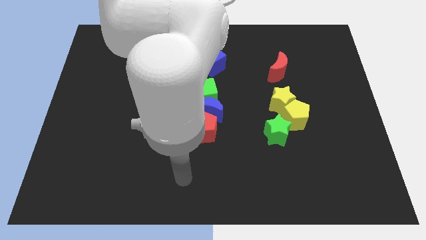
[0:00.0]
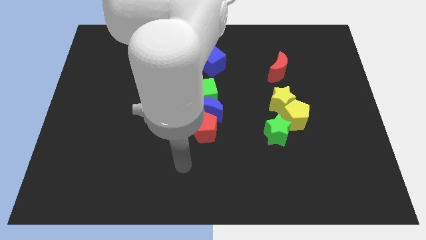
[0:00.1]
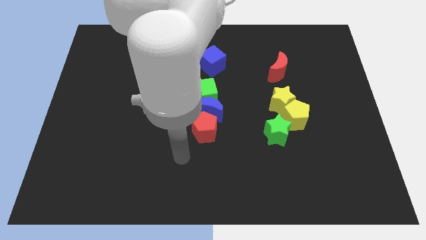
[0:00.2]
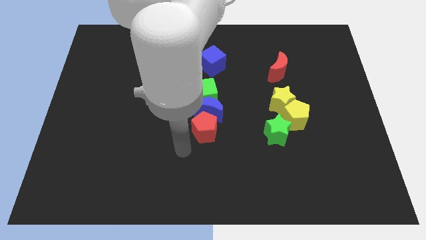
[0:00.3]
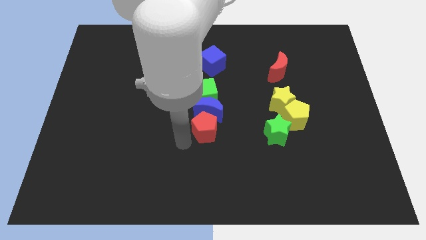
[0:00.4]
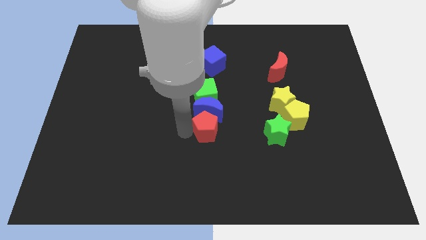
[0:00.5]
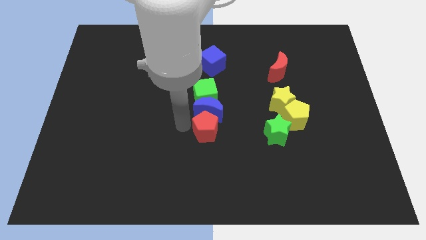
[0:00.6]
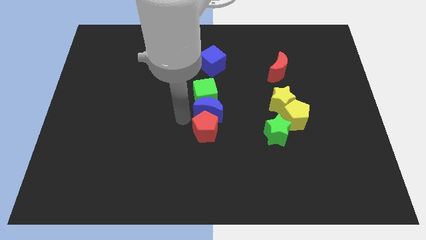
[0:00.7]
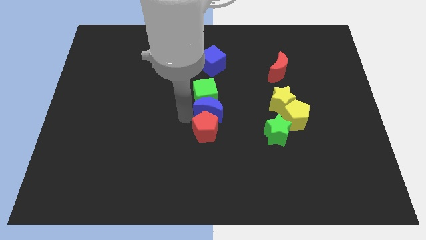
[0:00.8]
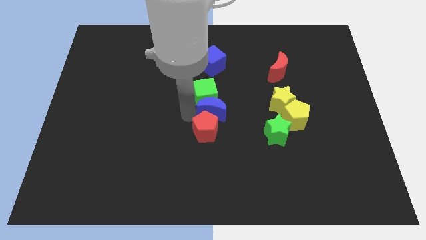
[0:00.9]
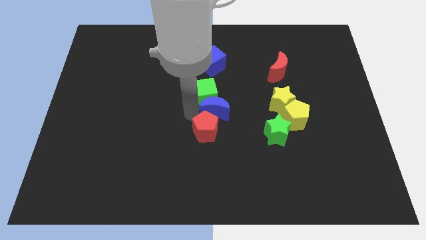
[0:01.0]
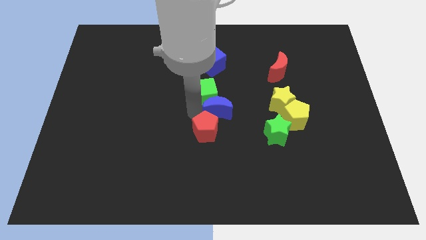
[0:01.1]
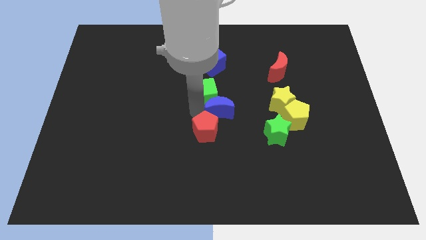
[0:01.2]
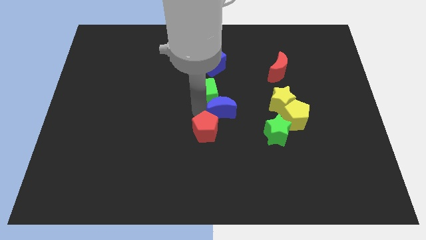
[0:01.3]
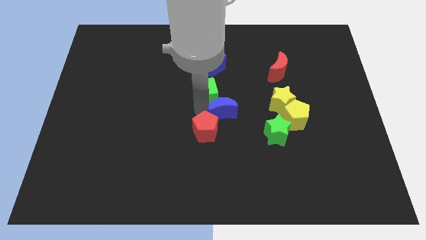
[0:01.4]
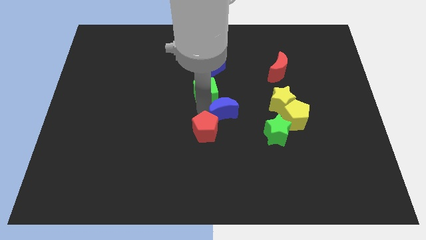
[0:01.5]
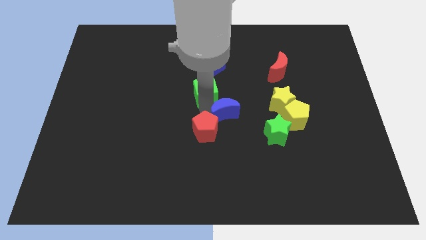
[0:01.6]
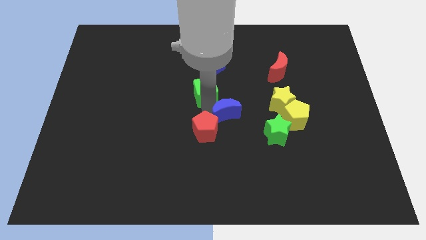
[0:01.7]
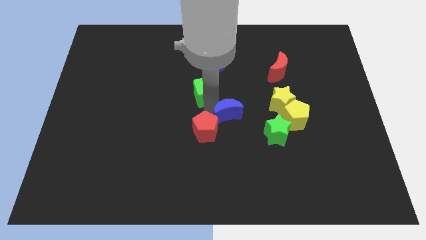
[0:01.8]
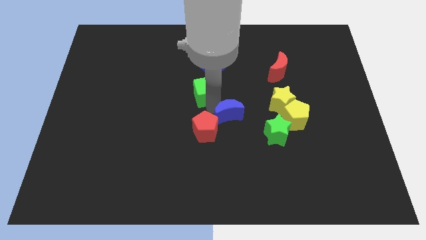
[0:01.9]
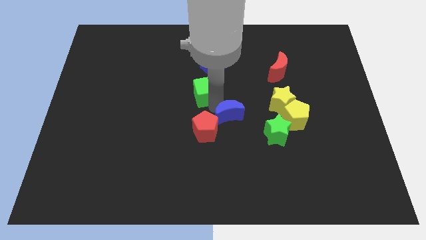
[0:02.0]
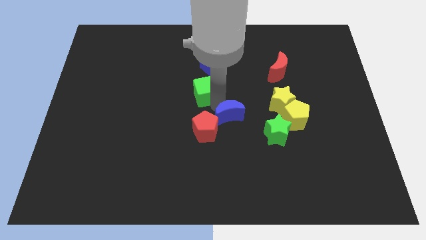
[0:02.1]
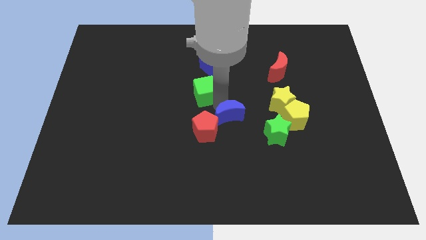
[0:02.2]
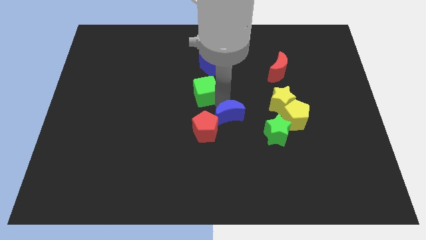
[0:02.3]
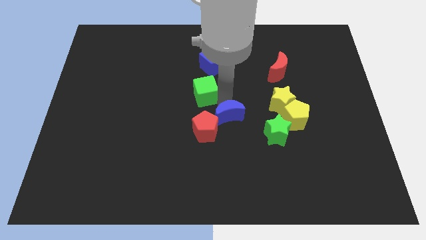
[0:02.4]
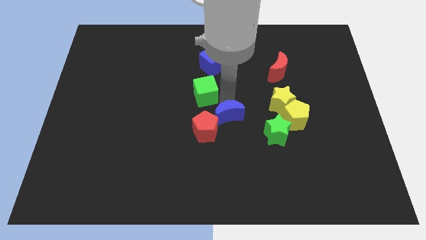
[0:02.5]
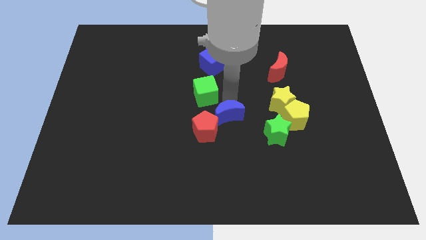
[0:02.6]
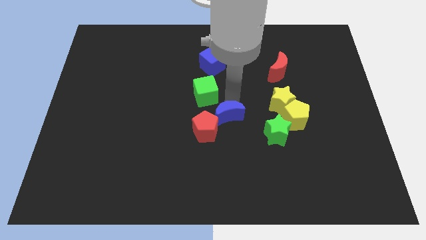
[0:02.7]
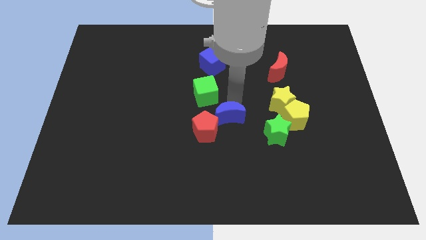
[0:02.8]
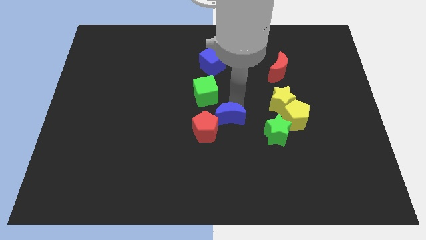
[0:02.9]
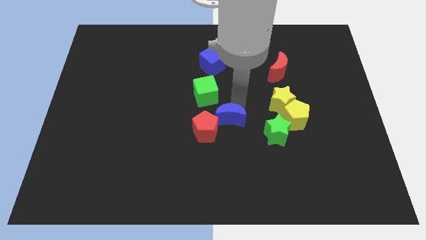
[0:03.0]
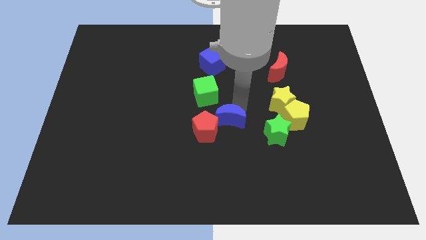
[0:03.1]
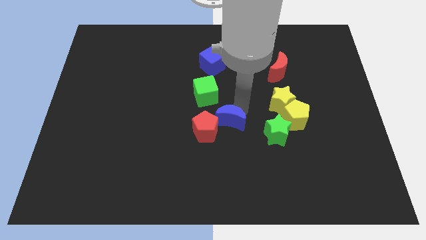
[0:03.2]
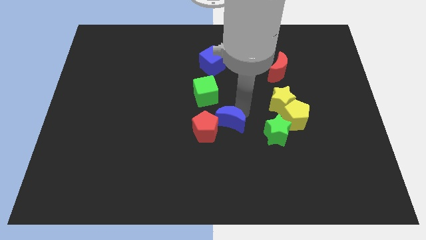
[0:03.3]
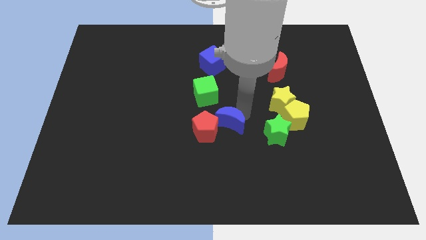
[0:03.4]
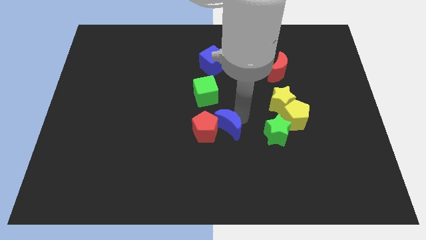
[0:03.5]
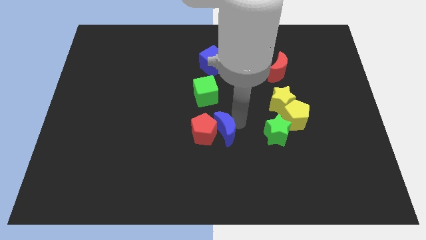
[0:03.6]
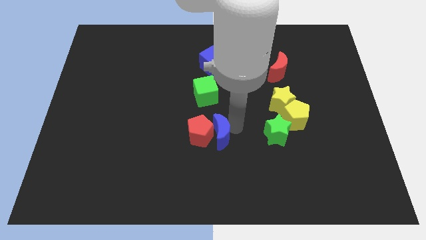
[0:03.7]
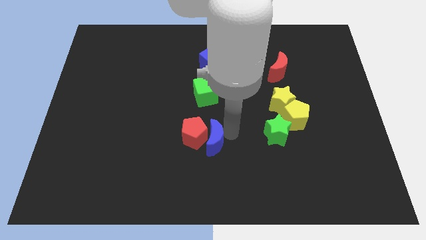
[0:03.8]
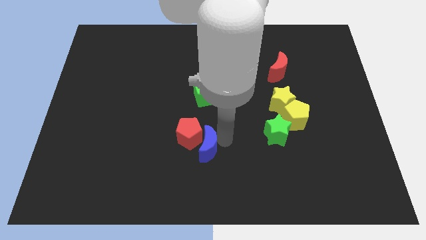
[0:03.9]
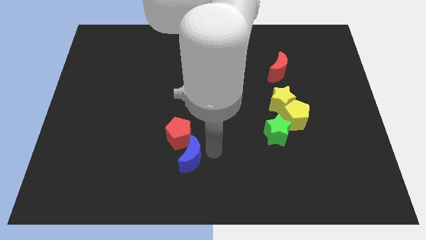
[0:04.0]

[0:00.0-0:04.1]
pull the blue moon apart from the green cube and red pentagon

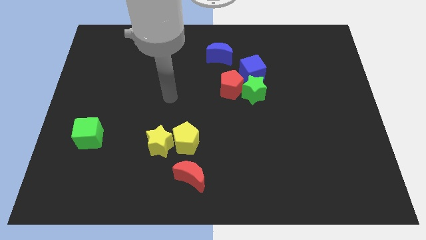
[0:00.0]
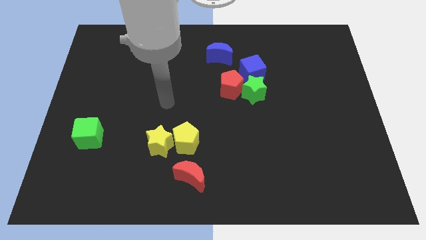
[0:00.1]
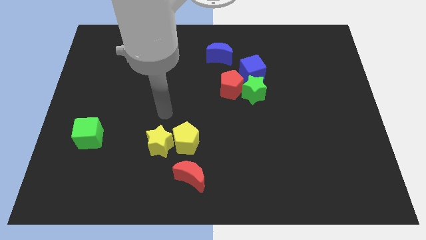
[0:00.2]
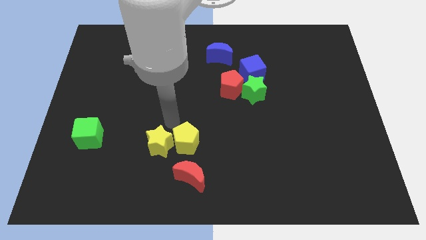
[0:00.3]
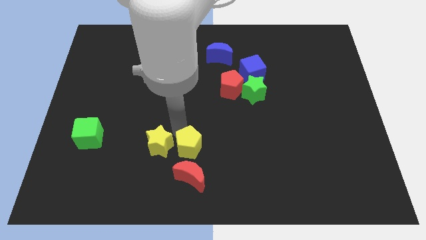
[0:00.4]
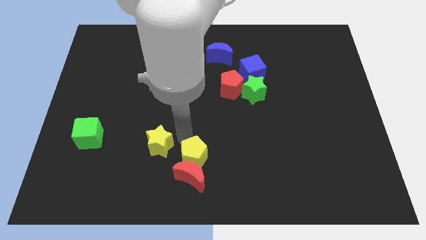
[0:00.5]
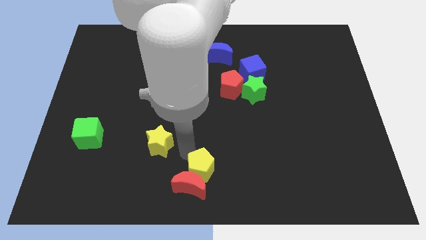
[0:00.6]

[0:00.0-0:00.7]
move the yellow star away from the yellow pentagon

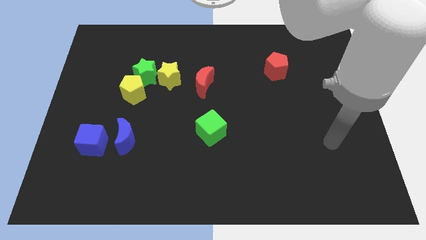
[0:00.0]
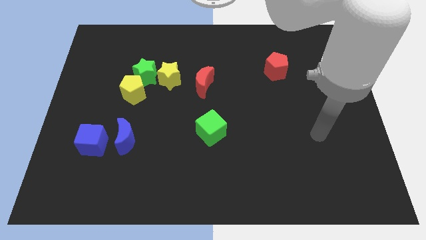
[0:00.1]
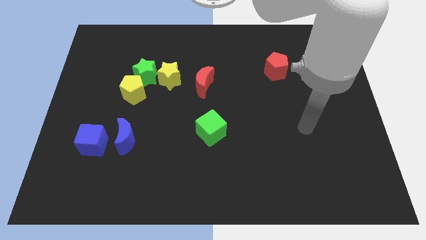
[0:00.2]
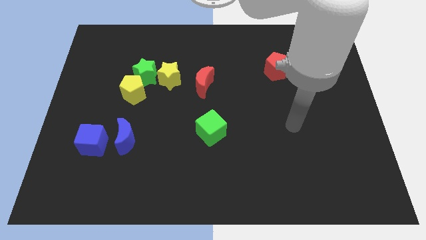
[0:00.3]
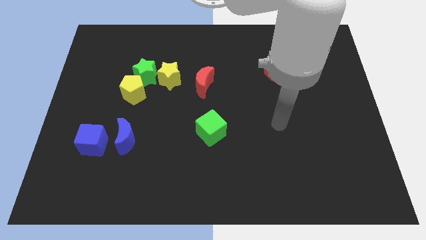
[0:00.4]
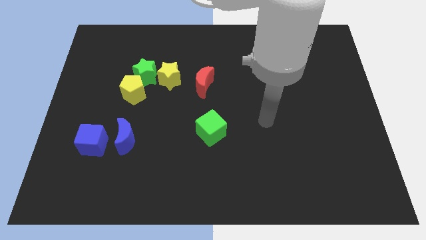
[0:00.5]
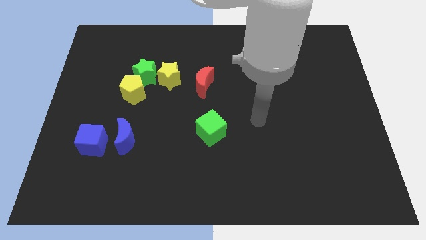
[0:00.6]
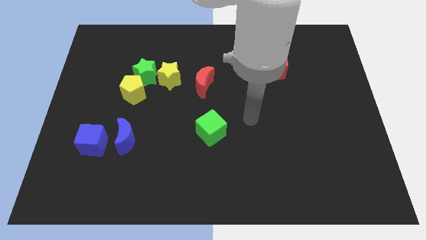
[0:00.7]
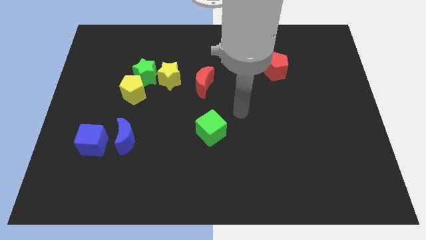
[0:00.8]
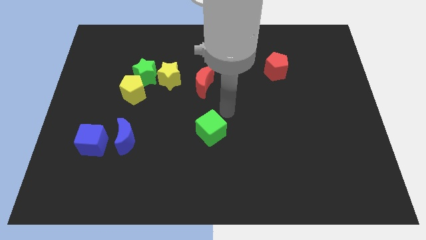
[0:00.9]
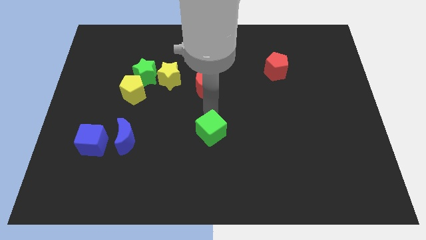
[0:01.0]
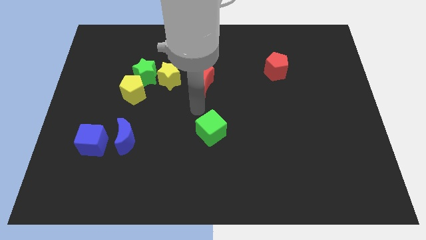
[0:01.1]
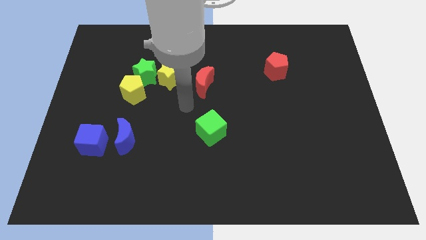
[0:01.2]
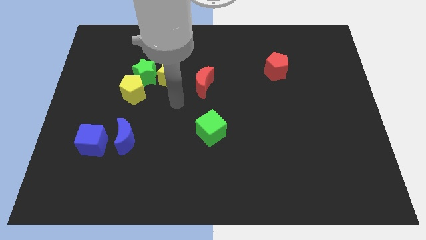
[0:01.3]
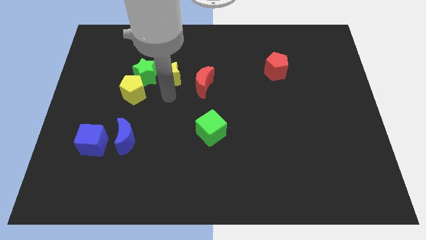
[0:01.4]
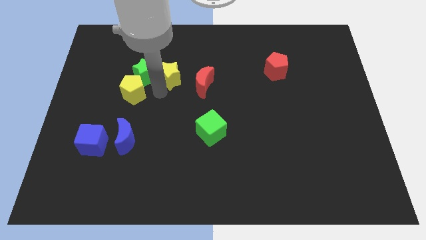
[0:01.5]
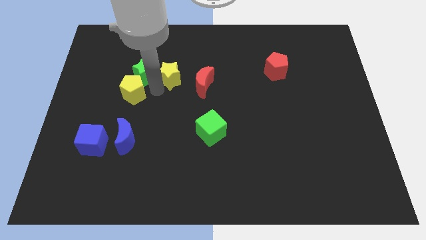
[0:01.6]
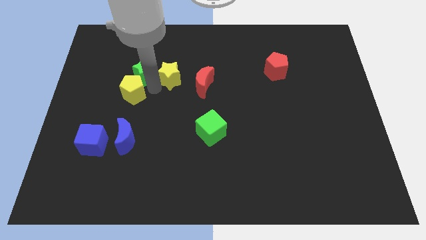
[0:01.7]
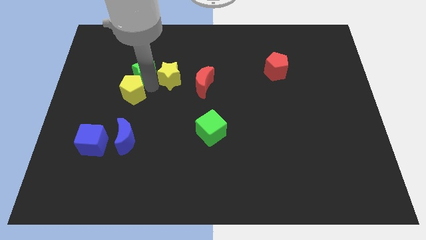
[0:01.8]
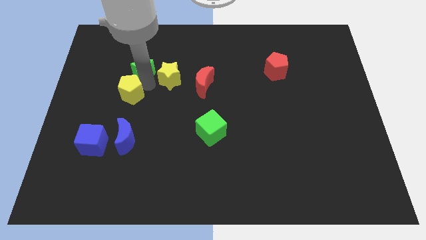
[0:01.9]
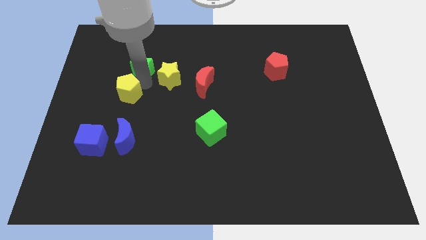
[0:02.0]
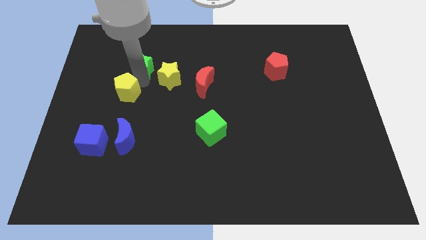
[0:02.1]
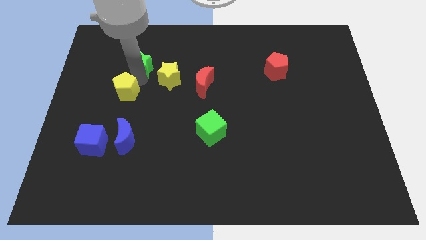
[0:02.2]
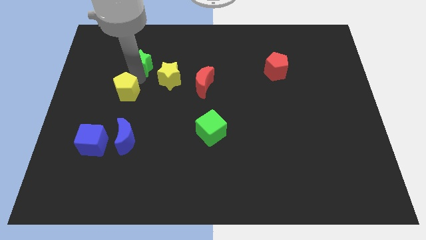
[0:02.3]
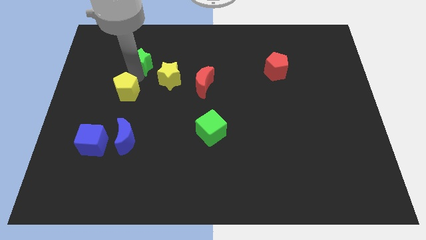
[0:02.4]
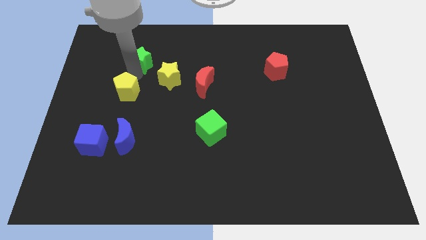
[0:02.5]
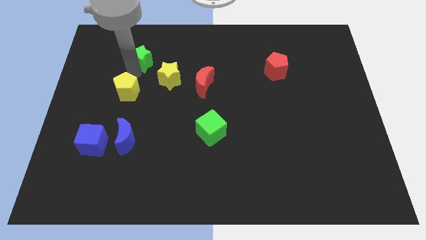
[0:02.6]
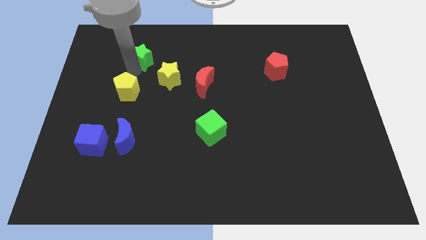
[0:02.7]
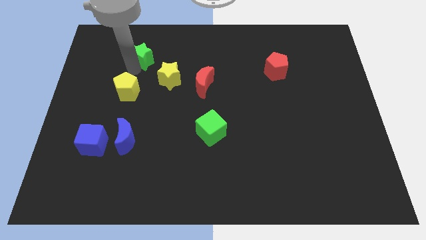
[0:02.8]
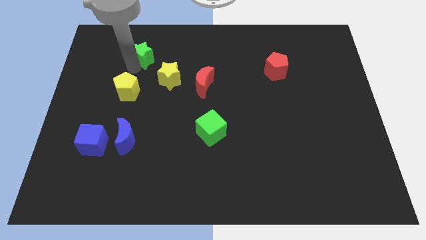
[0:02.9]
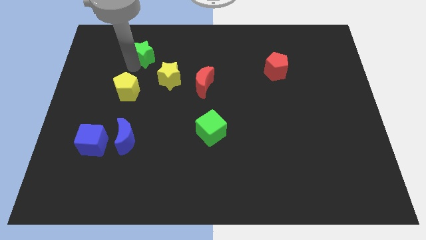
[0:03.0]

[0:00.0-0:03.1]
pull the green star apart from the yellow pentagon and yellow star

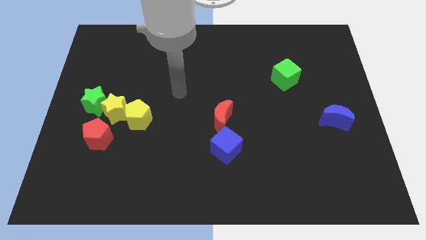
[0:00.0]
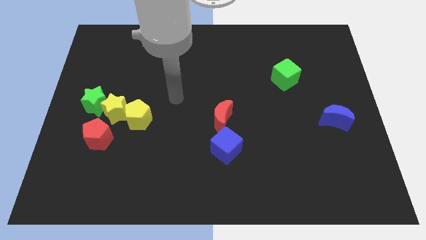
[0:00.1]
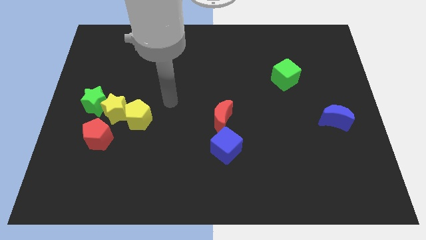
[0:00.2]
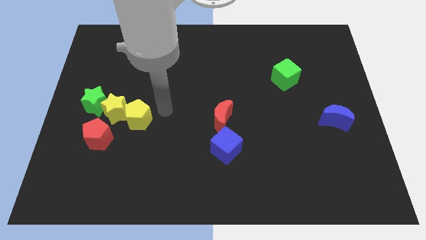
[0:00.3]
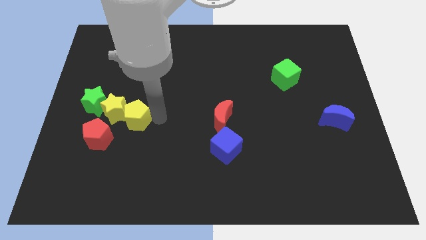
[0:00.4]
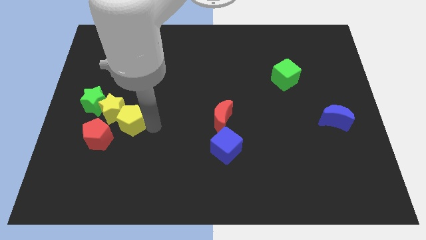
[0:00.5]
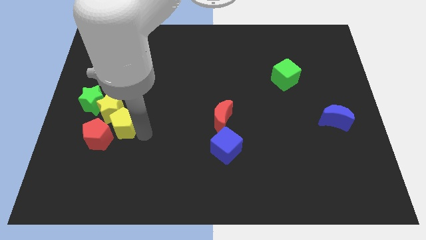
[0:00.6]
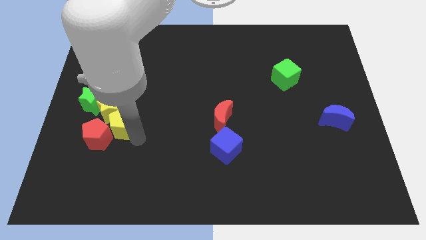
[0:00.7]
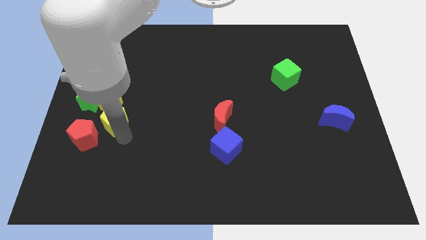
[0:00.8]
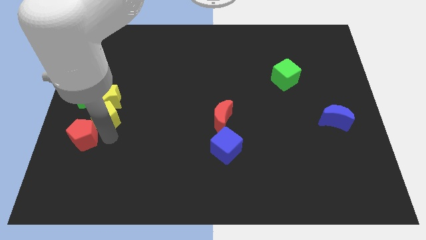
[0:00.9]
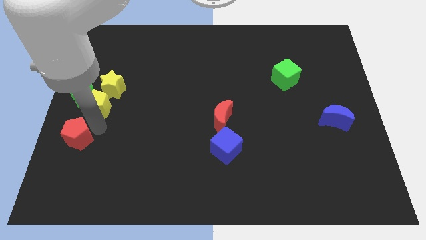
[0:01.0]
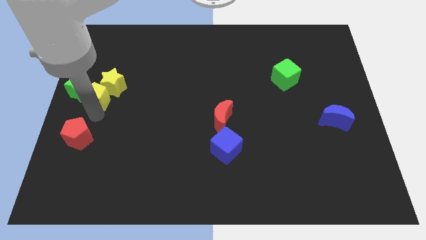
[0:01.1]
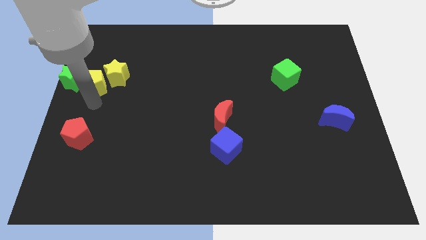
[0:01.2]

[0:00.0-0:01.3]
pull the yellow star apart from the group of blocks
